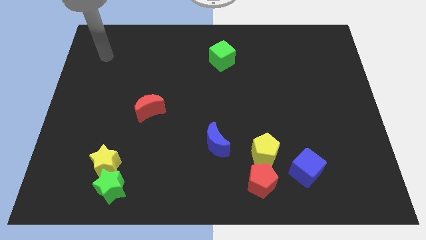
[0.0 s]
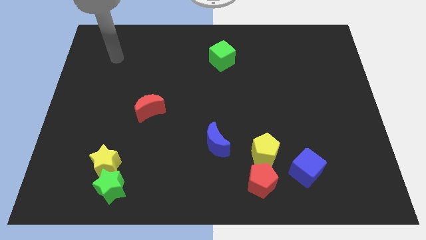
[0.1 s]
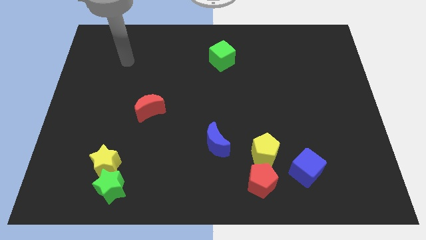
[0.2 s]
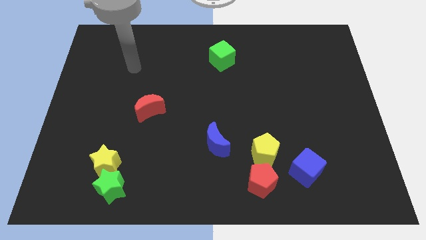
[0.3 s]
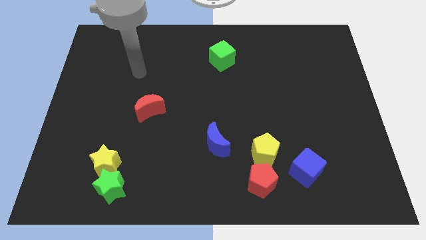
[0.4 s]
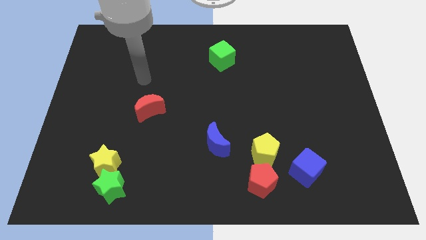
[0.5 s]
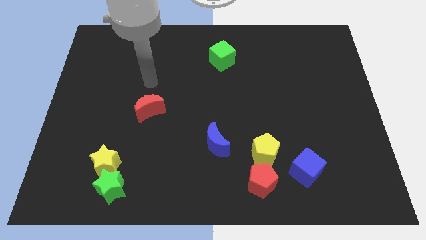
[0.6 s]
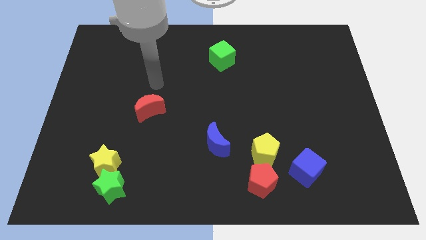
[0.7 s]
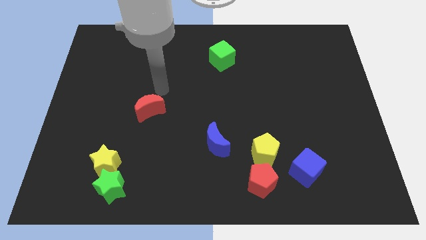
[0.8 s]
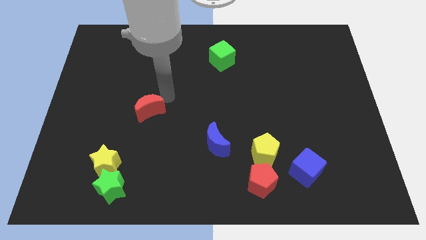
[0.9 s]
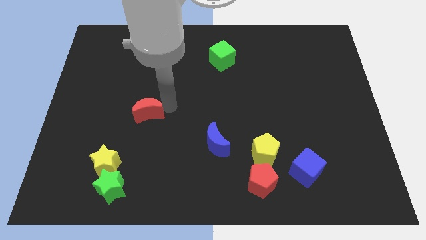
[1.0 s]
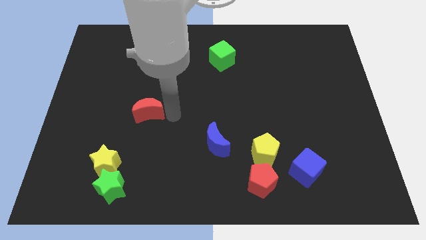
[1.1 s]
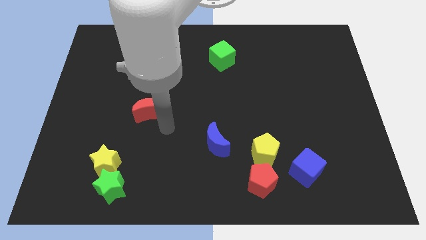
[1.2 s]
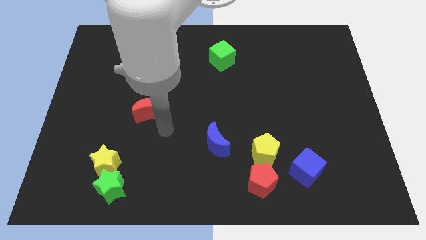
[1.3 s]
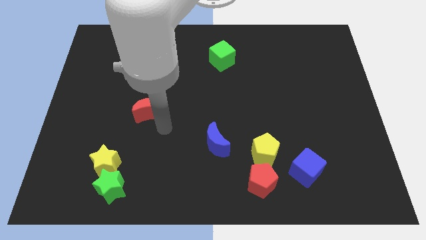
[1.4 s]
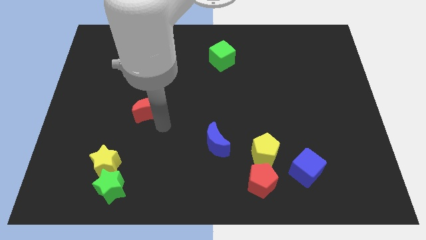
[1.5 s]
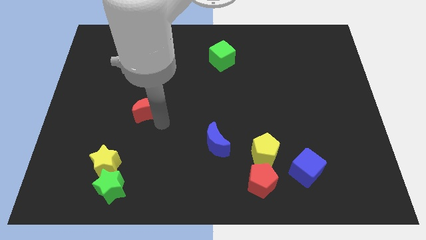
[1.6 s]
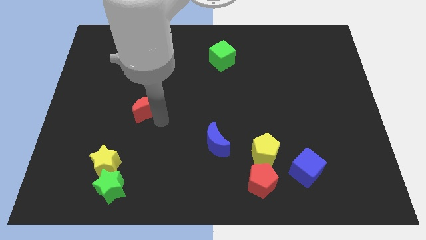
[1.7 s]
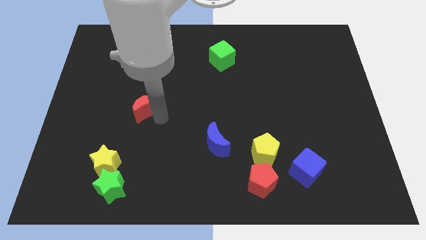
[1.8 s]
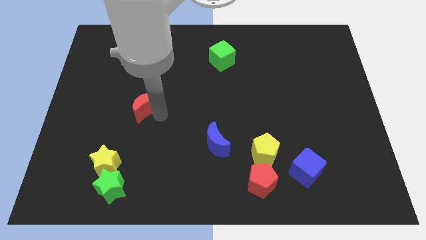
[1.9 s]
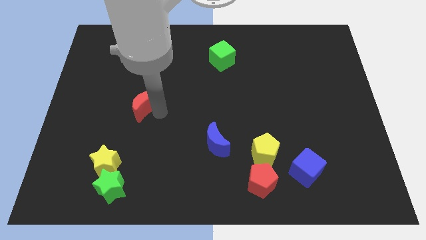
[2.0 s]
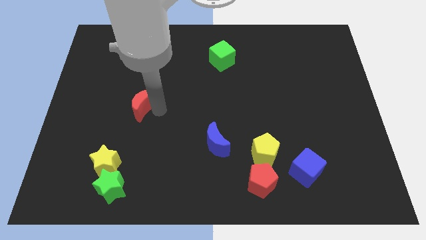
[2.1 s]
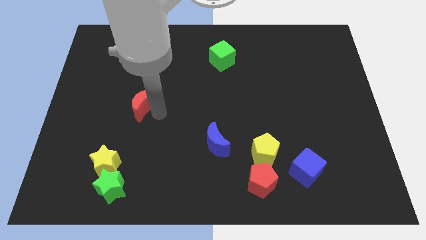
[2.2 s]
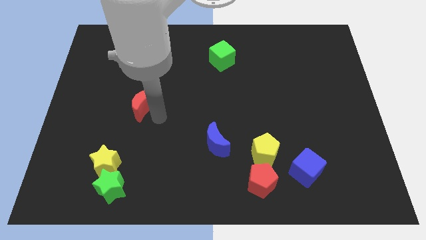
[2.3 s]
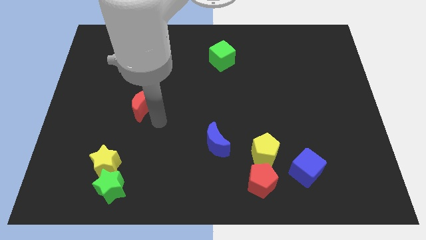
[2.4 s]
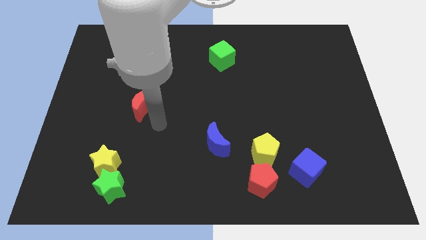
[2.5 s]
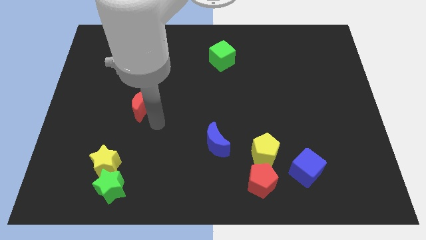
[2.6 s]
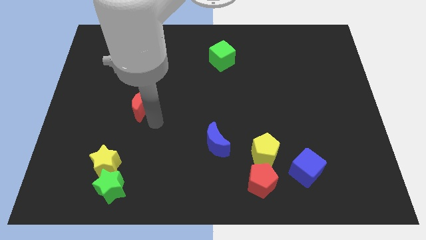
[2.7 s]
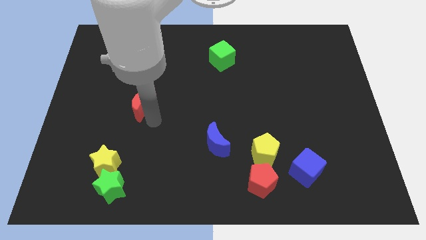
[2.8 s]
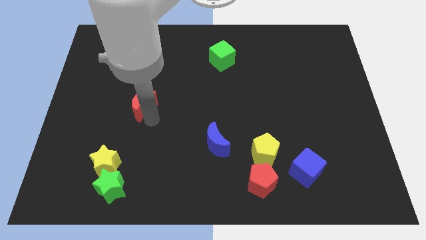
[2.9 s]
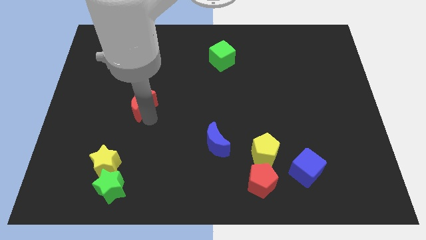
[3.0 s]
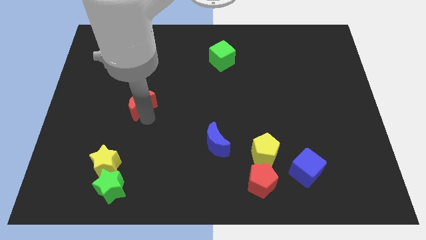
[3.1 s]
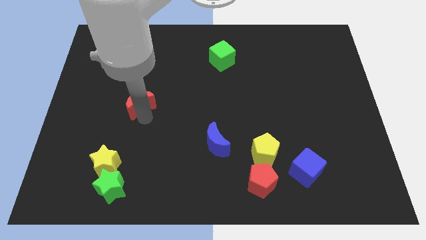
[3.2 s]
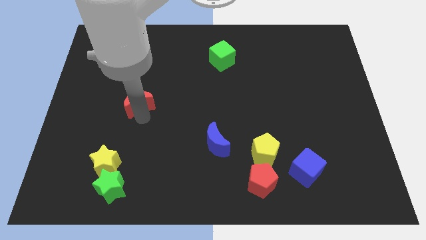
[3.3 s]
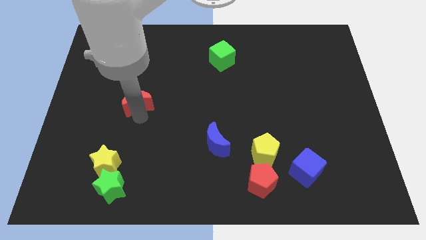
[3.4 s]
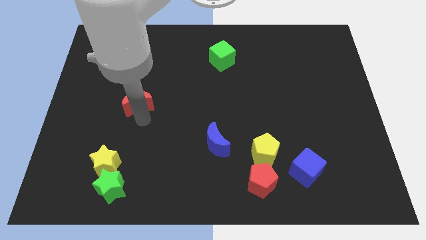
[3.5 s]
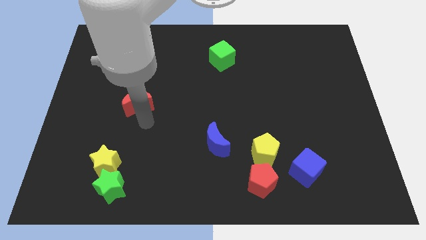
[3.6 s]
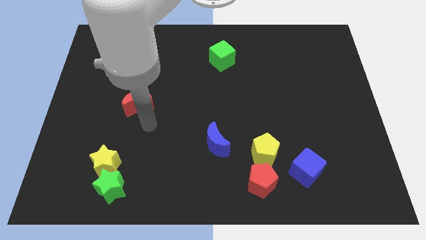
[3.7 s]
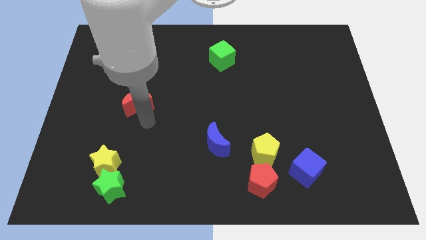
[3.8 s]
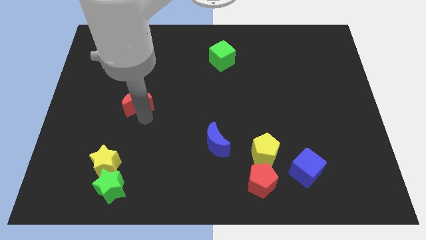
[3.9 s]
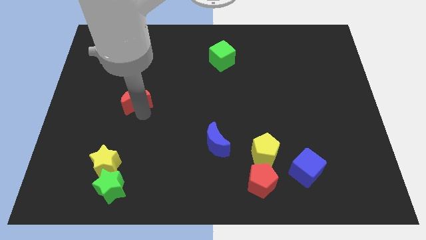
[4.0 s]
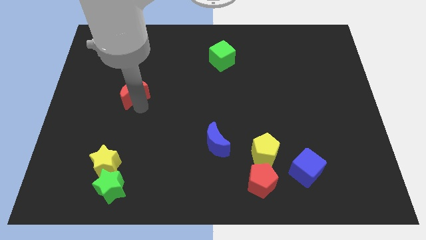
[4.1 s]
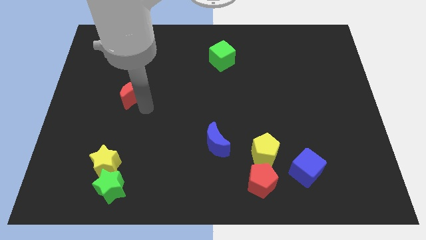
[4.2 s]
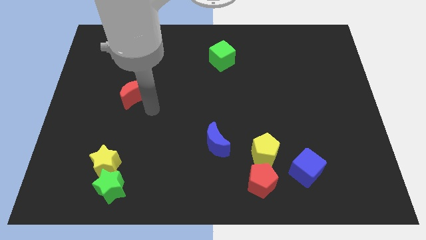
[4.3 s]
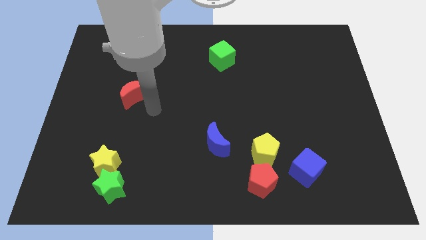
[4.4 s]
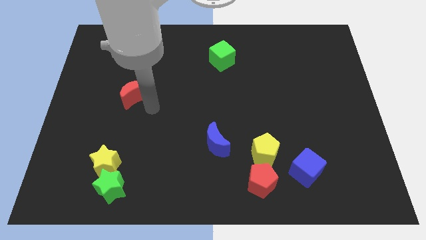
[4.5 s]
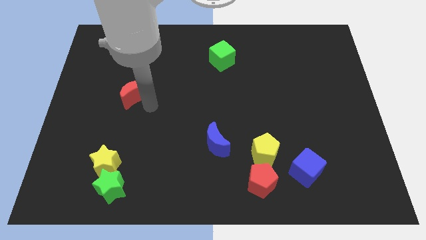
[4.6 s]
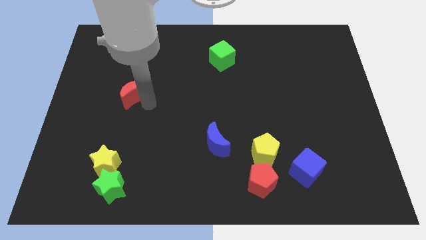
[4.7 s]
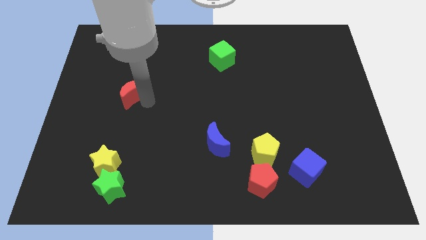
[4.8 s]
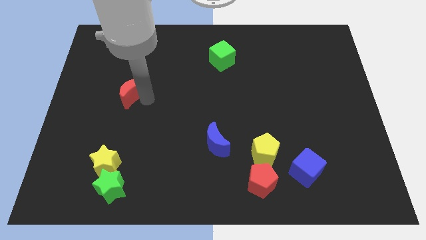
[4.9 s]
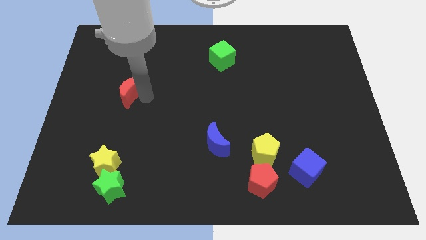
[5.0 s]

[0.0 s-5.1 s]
slightly move the red moon diagonally up and to the left

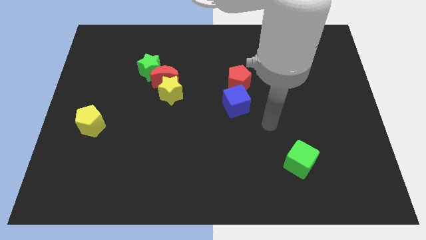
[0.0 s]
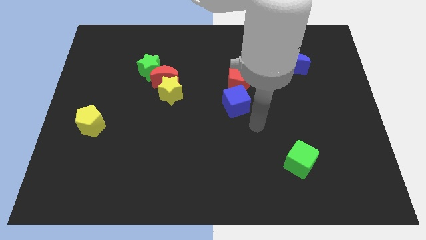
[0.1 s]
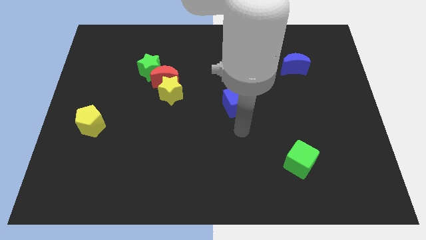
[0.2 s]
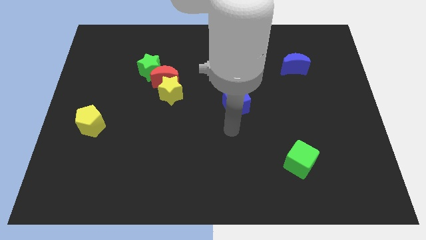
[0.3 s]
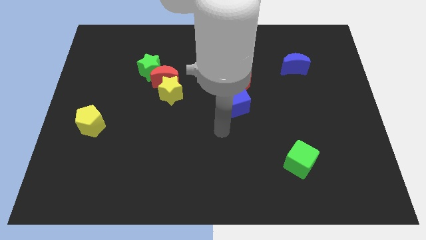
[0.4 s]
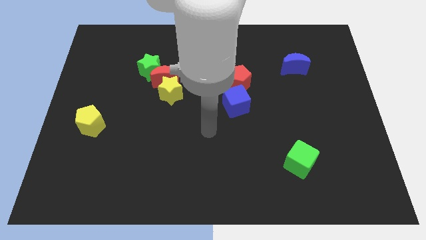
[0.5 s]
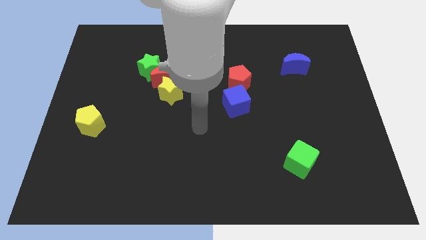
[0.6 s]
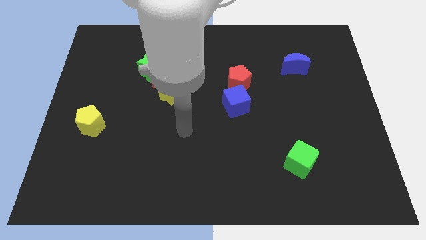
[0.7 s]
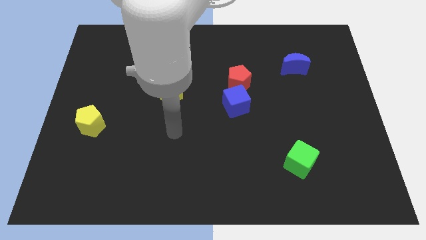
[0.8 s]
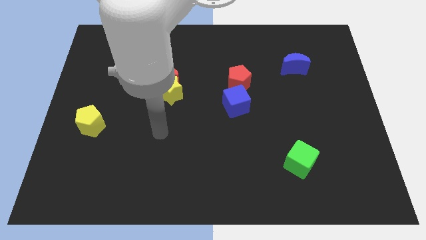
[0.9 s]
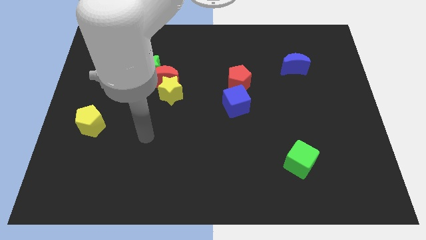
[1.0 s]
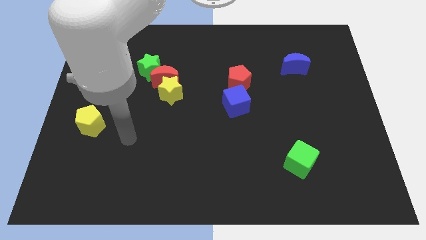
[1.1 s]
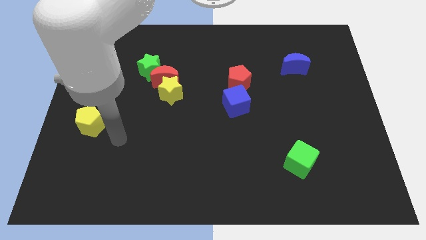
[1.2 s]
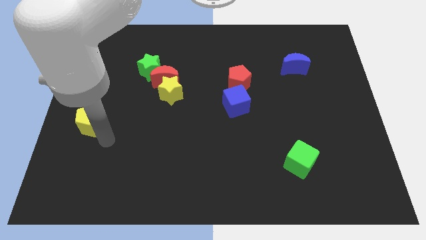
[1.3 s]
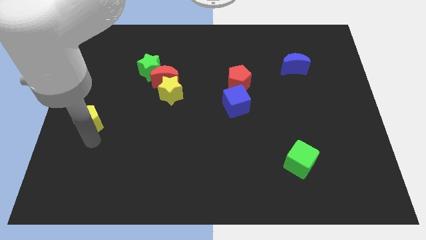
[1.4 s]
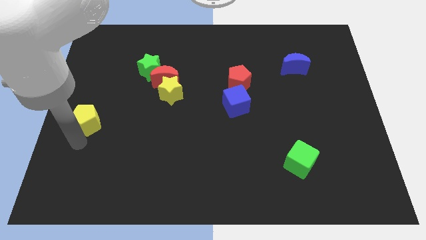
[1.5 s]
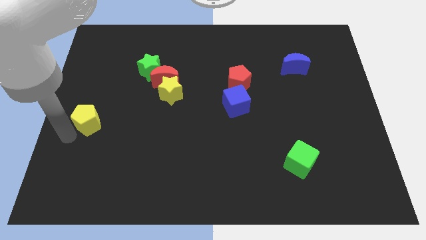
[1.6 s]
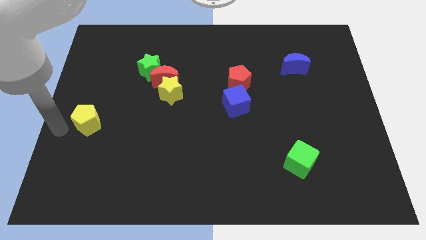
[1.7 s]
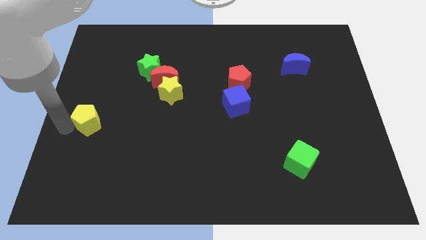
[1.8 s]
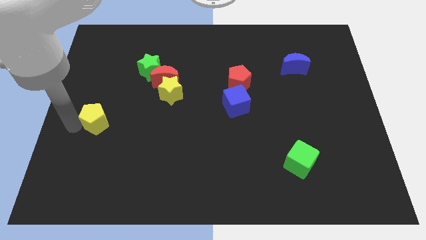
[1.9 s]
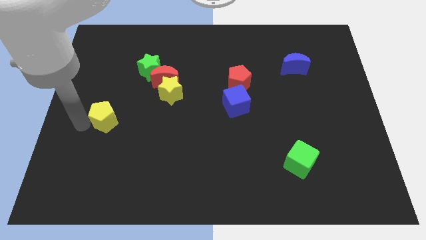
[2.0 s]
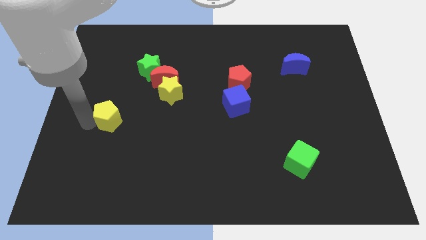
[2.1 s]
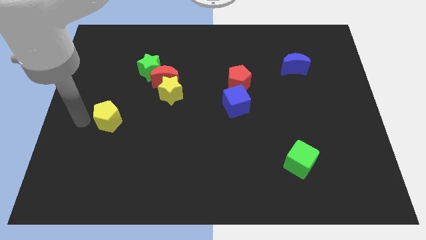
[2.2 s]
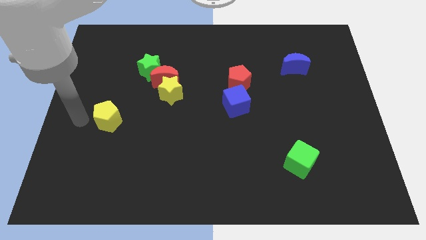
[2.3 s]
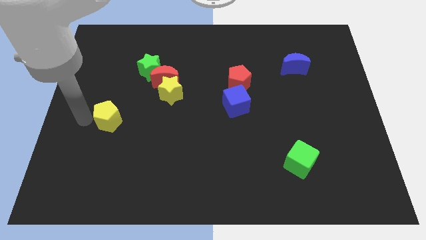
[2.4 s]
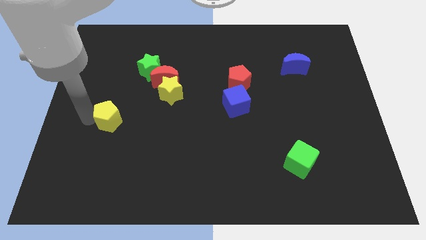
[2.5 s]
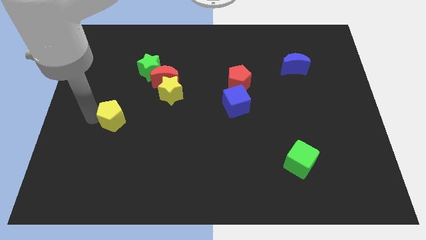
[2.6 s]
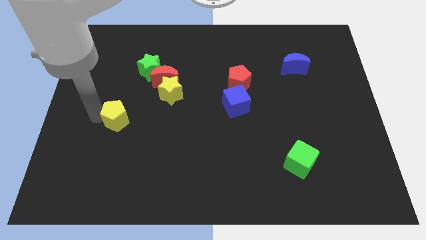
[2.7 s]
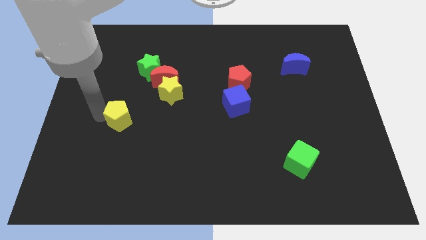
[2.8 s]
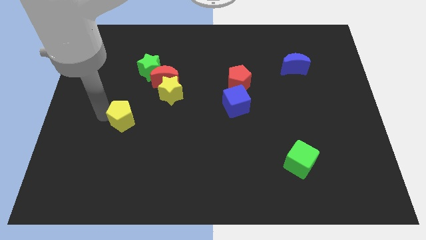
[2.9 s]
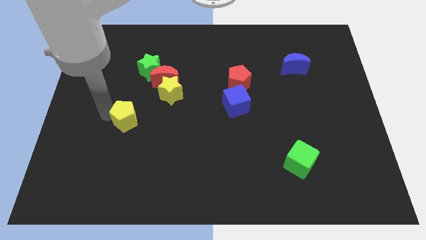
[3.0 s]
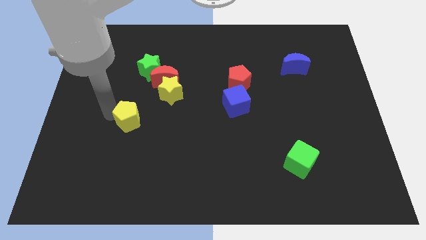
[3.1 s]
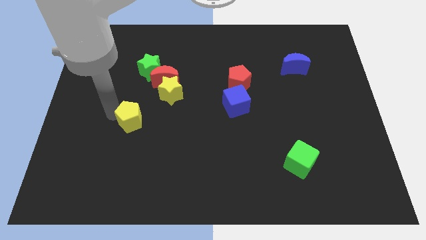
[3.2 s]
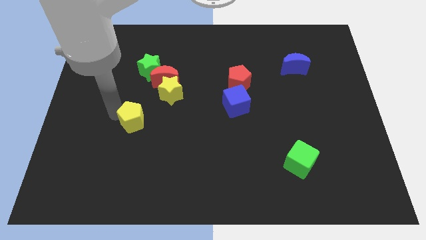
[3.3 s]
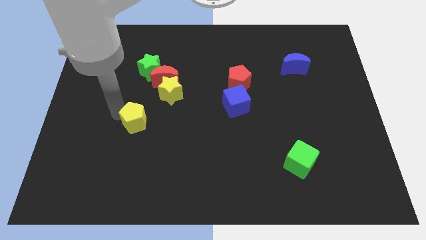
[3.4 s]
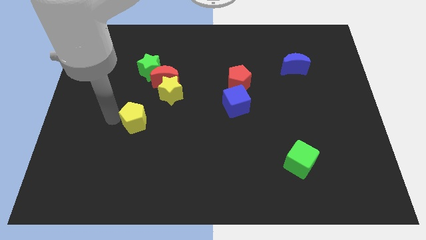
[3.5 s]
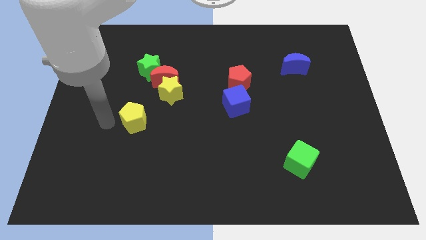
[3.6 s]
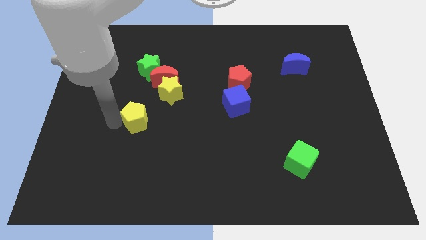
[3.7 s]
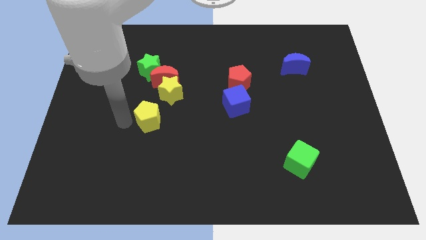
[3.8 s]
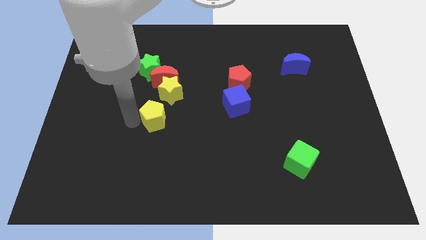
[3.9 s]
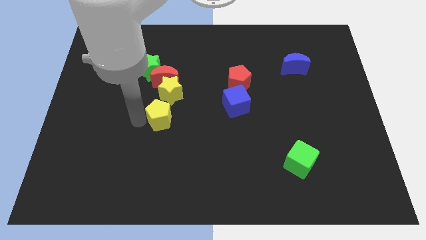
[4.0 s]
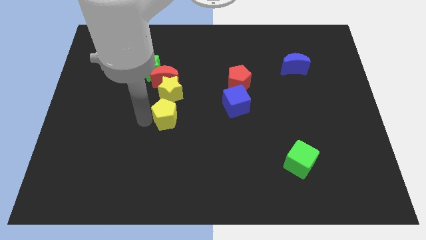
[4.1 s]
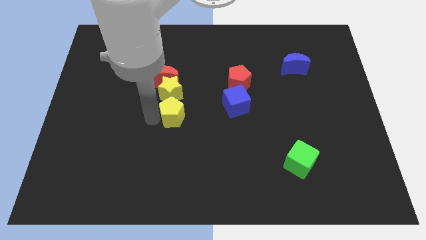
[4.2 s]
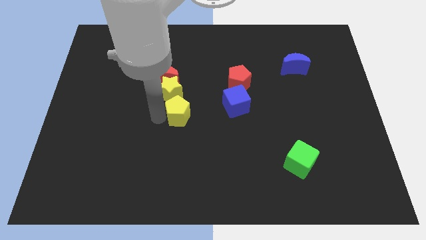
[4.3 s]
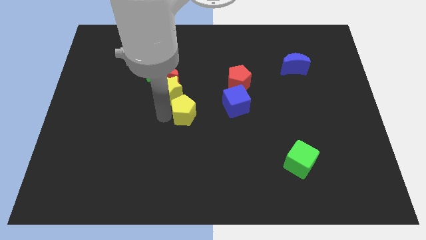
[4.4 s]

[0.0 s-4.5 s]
slide the yellow pentagon to the right
